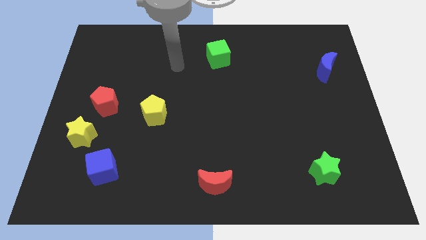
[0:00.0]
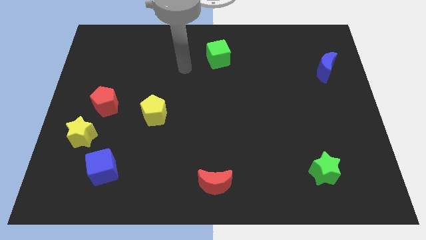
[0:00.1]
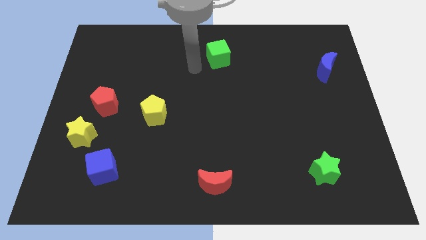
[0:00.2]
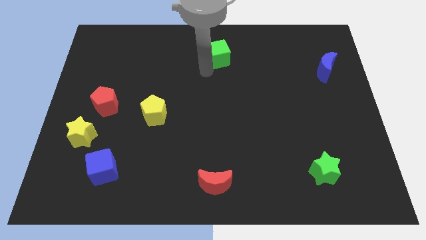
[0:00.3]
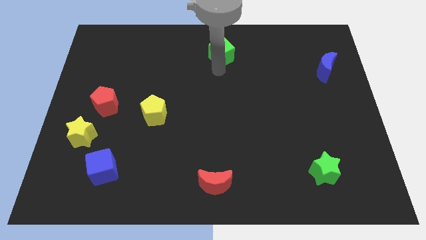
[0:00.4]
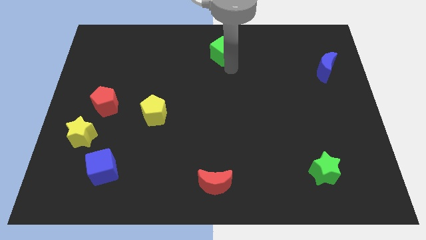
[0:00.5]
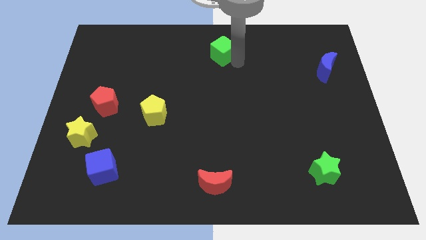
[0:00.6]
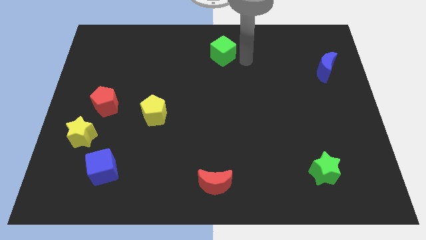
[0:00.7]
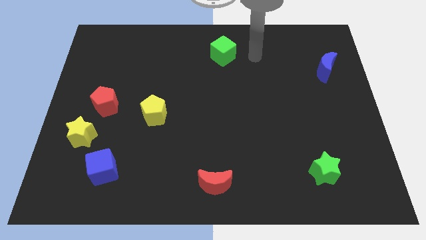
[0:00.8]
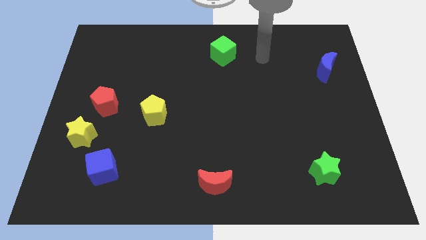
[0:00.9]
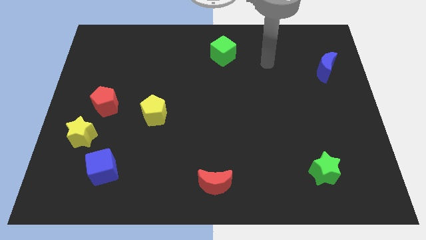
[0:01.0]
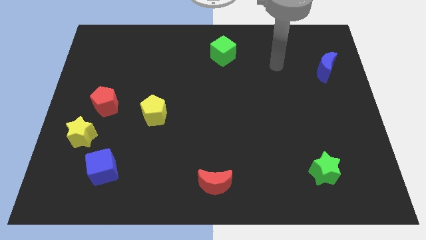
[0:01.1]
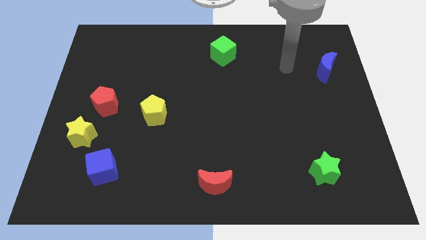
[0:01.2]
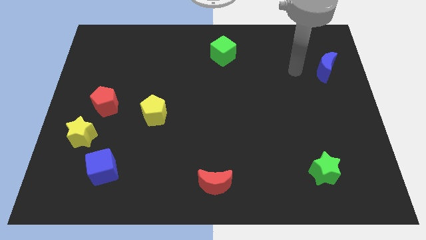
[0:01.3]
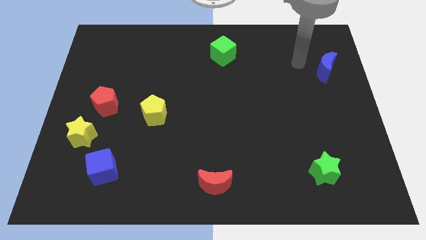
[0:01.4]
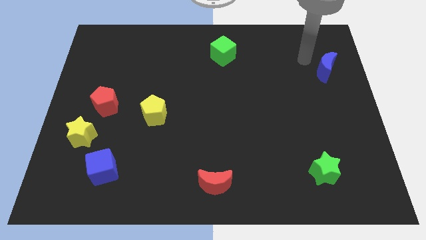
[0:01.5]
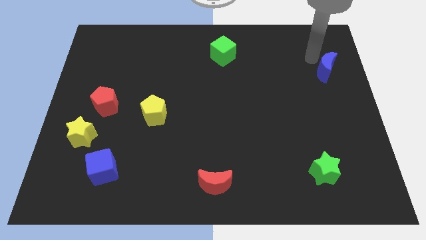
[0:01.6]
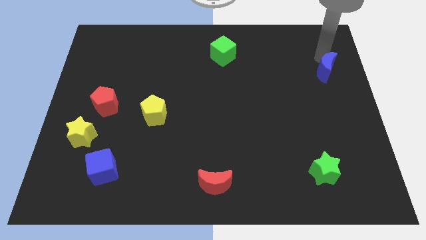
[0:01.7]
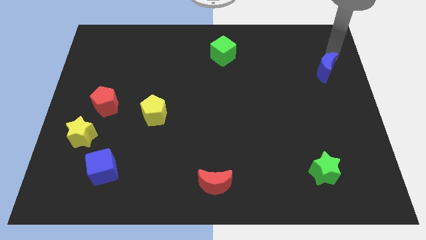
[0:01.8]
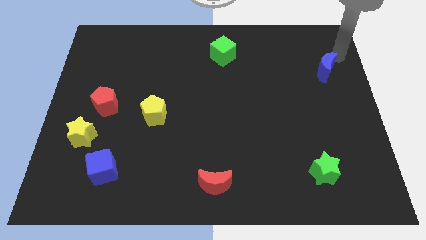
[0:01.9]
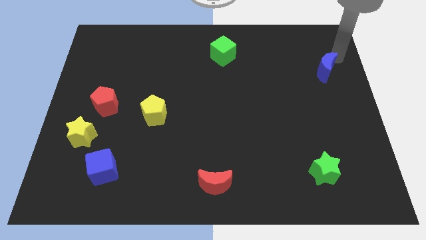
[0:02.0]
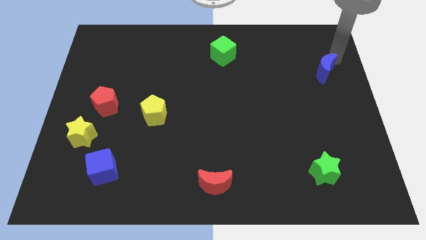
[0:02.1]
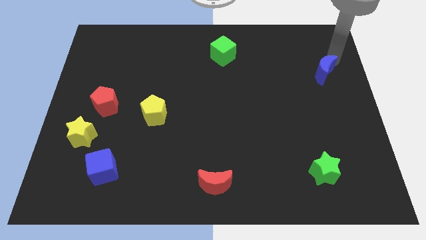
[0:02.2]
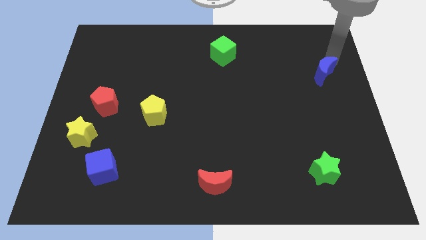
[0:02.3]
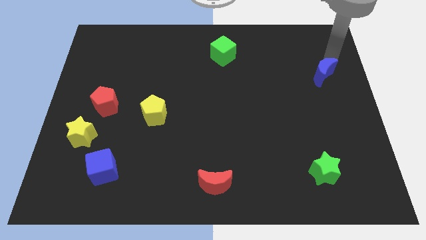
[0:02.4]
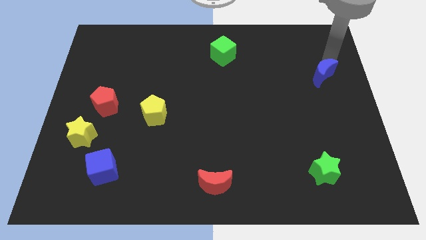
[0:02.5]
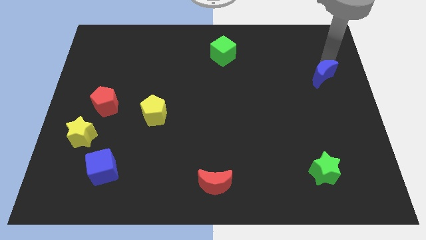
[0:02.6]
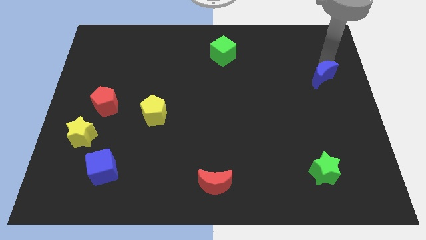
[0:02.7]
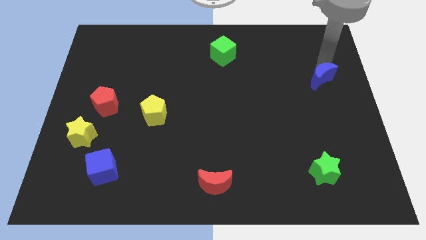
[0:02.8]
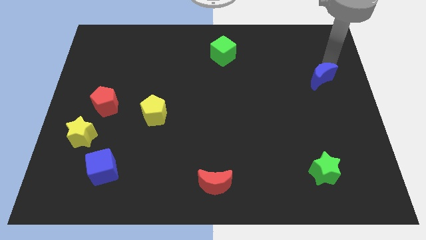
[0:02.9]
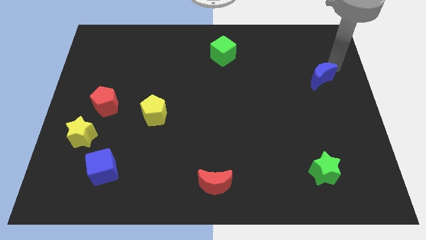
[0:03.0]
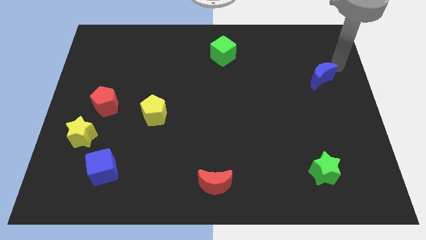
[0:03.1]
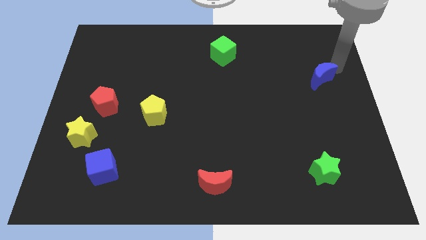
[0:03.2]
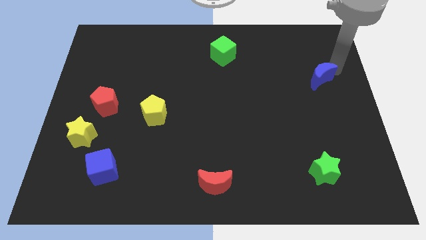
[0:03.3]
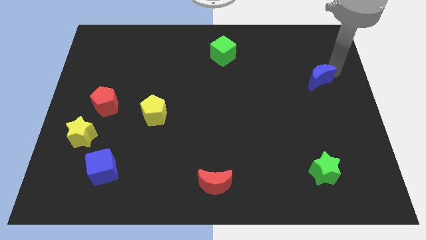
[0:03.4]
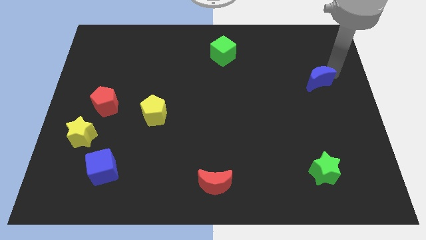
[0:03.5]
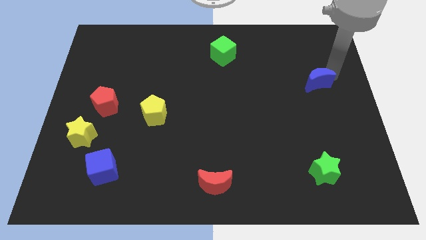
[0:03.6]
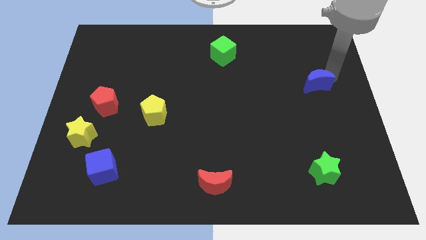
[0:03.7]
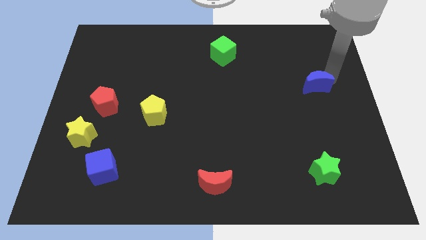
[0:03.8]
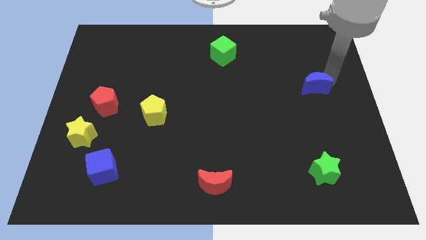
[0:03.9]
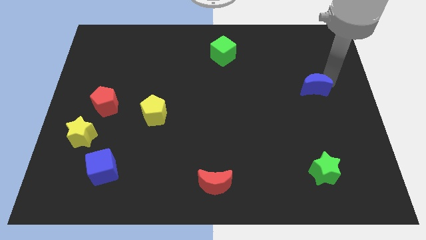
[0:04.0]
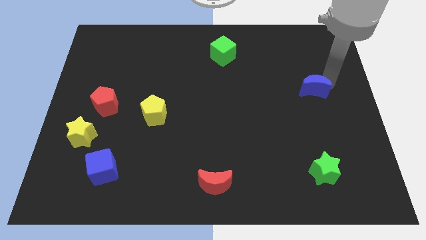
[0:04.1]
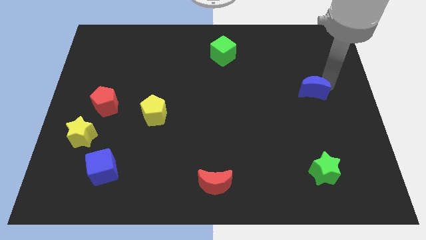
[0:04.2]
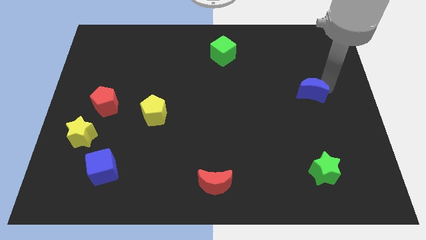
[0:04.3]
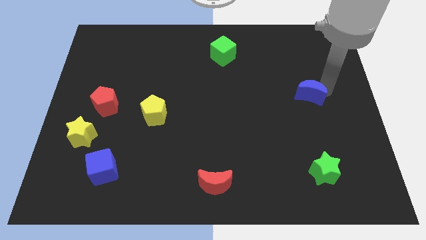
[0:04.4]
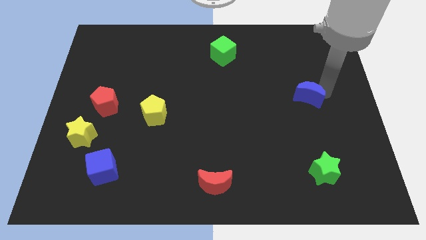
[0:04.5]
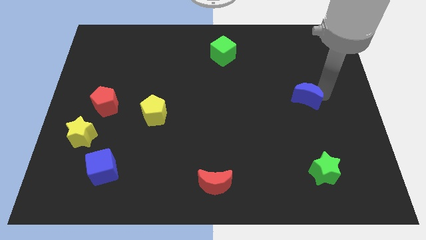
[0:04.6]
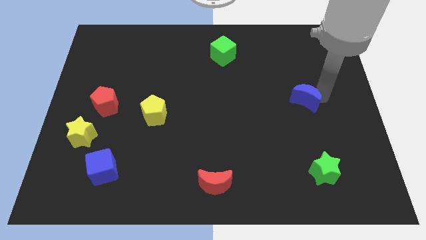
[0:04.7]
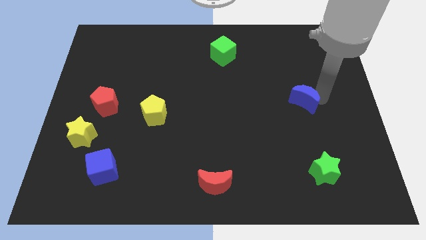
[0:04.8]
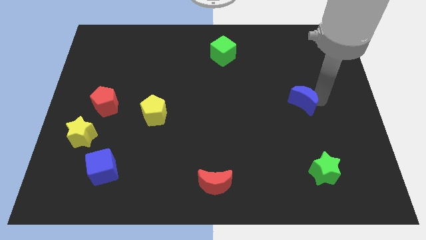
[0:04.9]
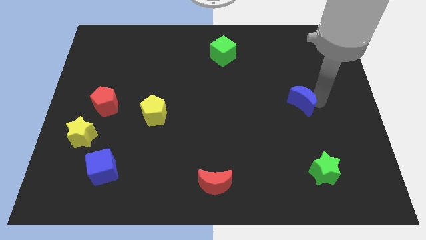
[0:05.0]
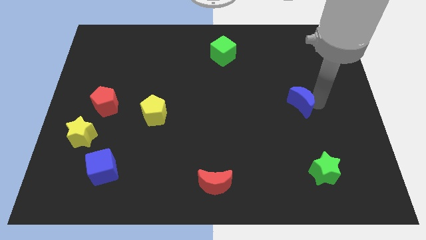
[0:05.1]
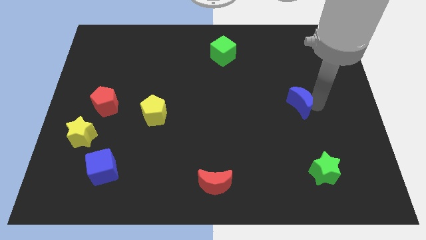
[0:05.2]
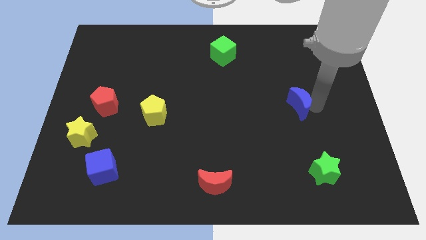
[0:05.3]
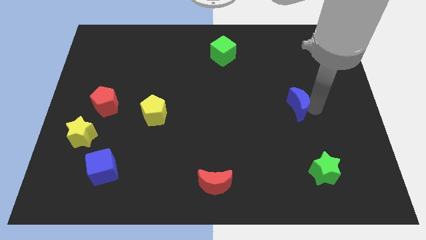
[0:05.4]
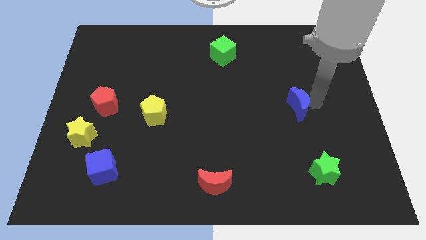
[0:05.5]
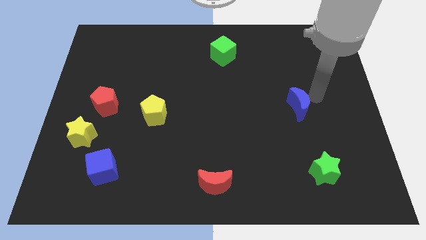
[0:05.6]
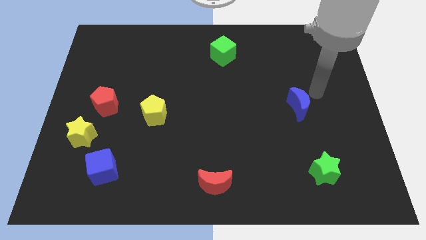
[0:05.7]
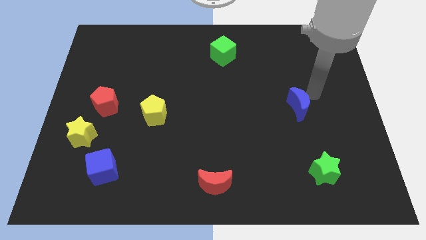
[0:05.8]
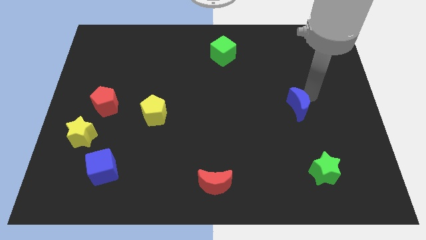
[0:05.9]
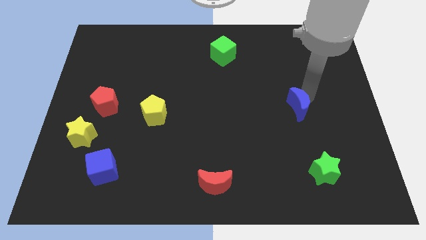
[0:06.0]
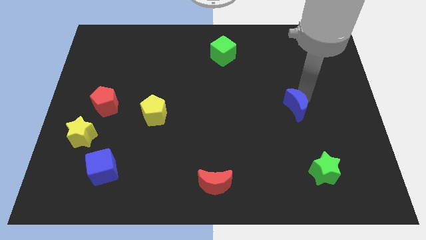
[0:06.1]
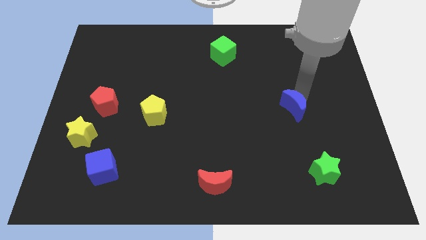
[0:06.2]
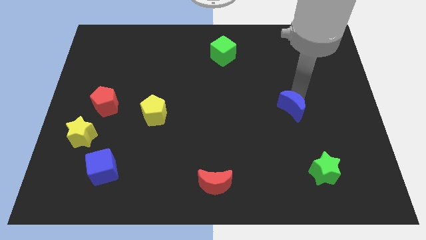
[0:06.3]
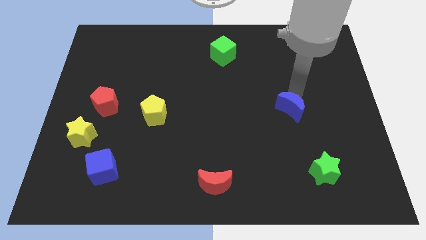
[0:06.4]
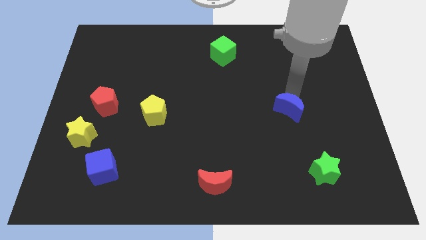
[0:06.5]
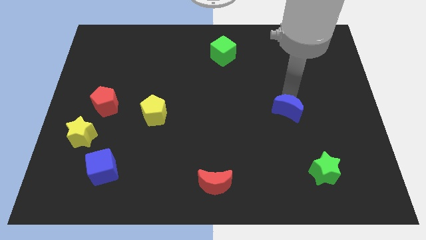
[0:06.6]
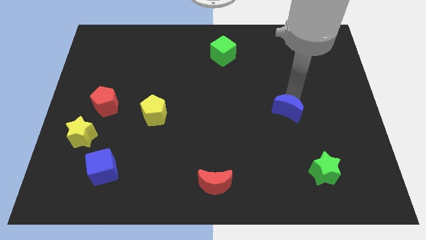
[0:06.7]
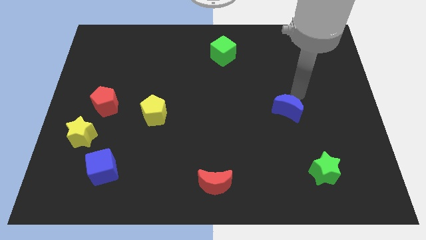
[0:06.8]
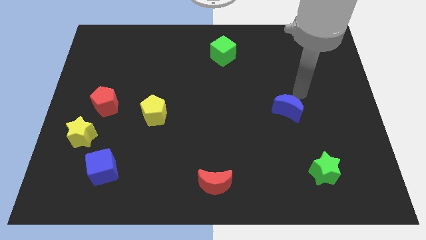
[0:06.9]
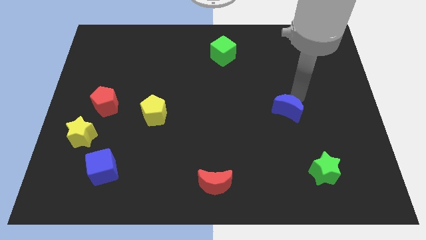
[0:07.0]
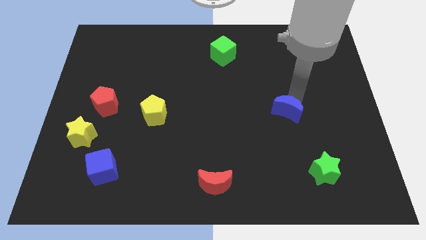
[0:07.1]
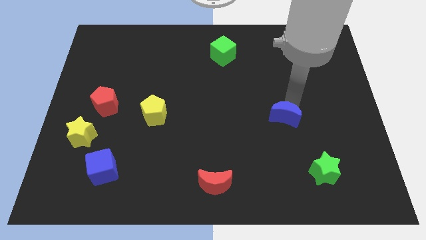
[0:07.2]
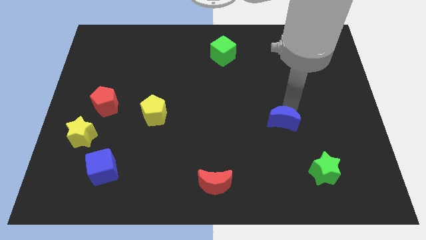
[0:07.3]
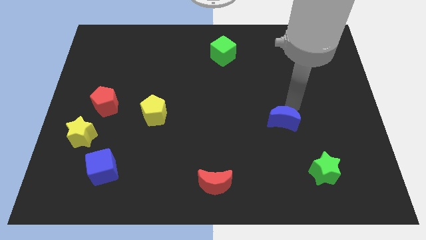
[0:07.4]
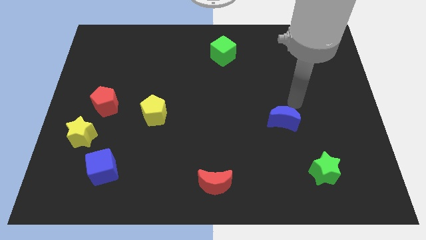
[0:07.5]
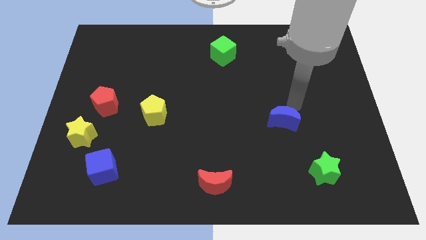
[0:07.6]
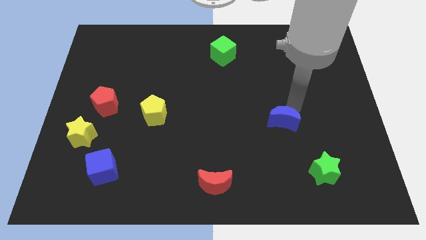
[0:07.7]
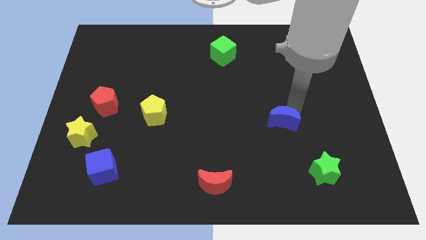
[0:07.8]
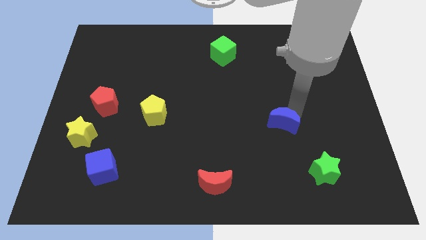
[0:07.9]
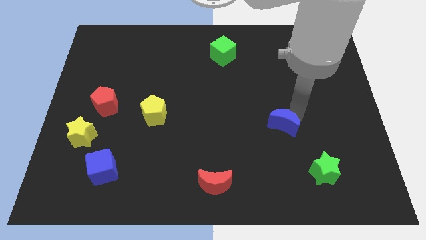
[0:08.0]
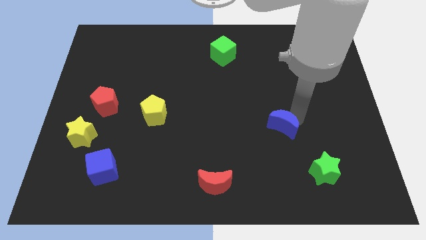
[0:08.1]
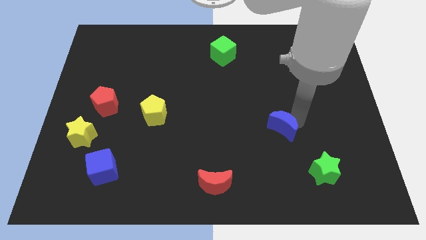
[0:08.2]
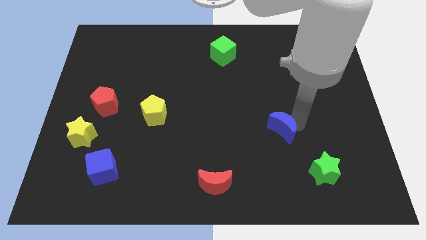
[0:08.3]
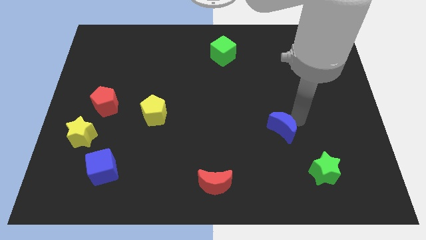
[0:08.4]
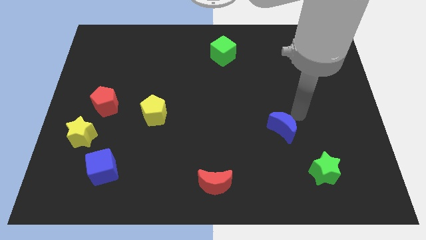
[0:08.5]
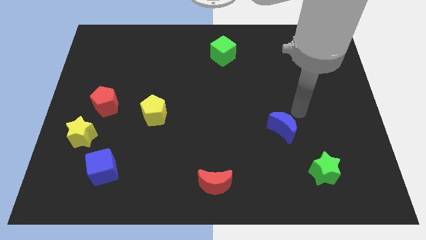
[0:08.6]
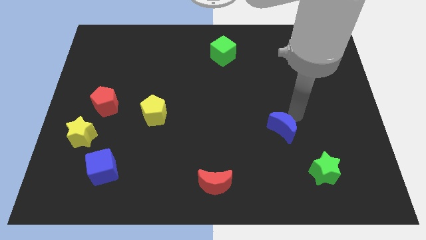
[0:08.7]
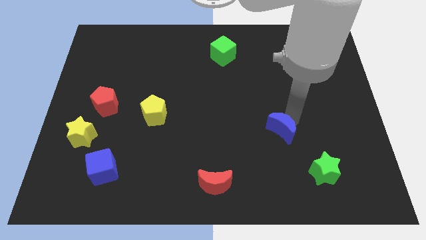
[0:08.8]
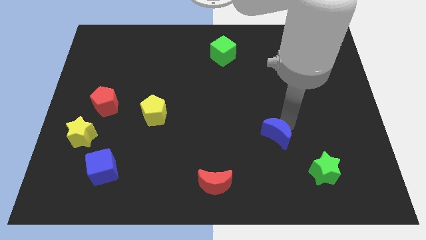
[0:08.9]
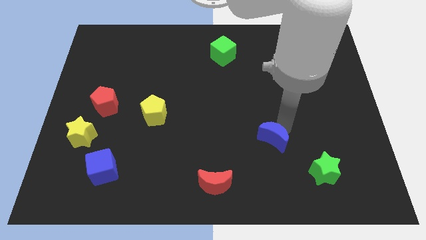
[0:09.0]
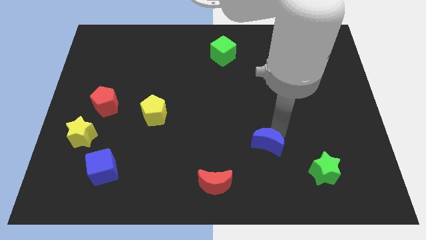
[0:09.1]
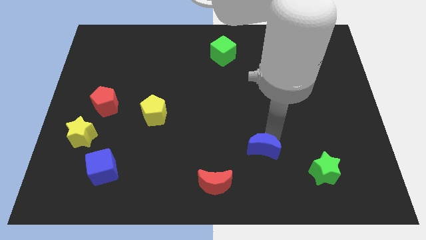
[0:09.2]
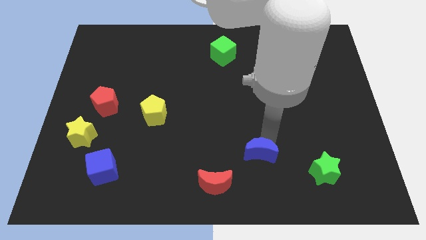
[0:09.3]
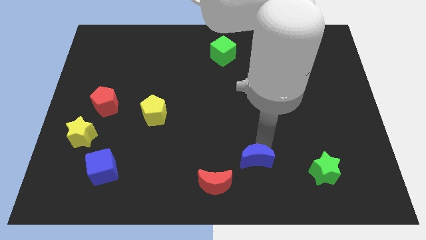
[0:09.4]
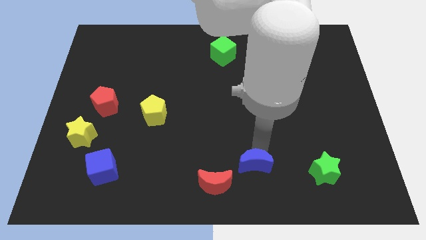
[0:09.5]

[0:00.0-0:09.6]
move the blue moon to the bottom
